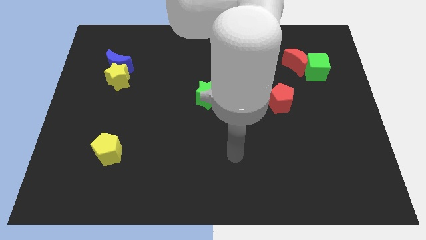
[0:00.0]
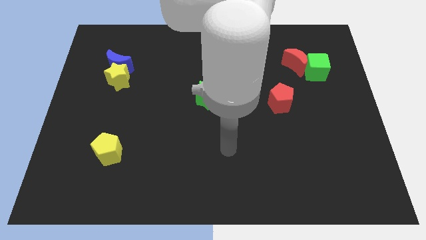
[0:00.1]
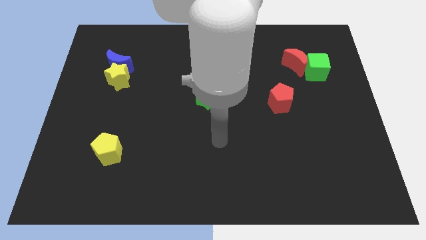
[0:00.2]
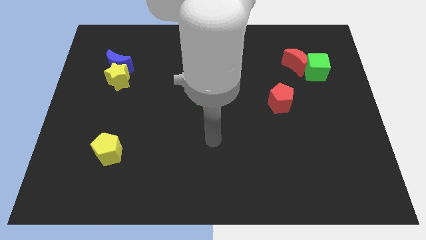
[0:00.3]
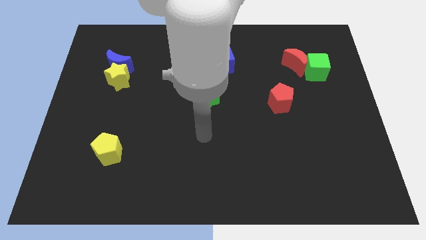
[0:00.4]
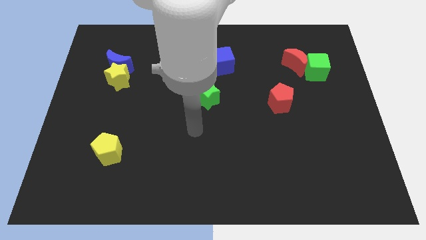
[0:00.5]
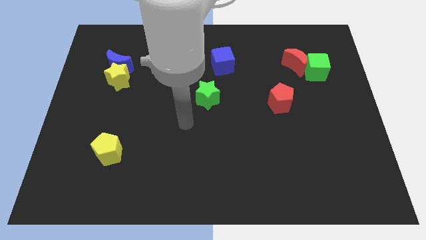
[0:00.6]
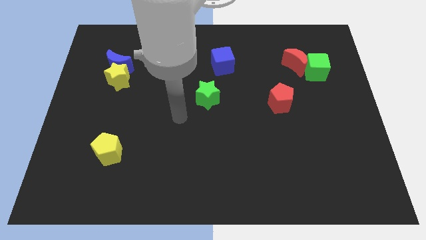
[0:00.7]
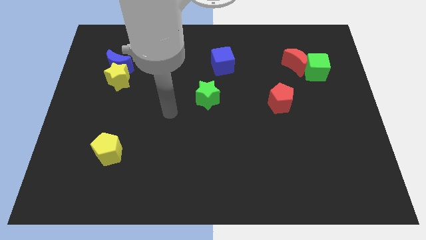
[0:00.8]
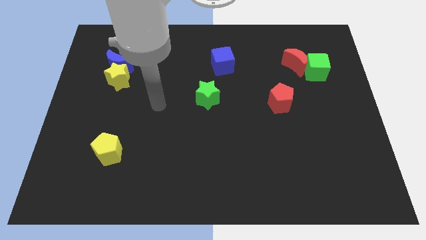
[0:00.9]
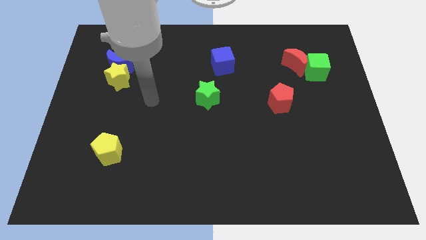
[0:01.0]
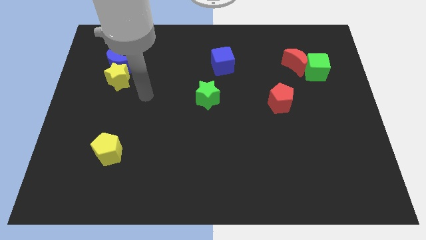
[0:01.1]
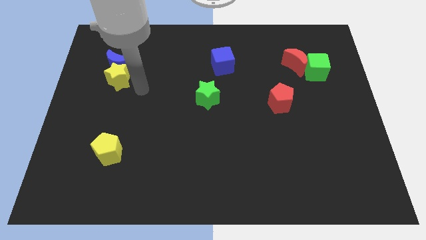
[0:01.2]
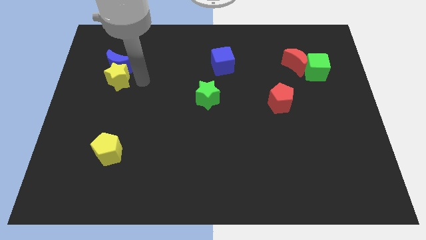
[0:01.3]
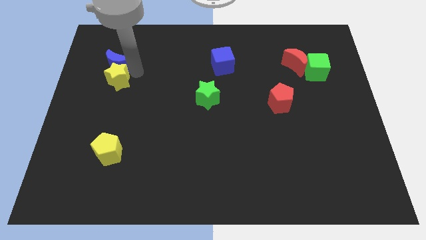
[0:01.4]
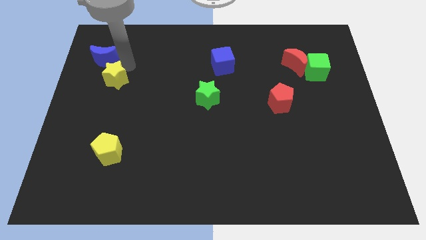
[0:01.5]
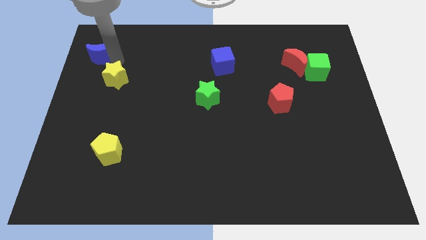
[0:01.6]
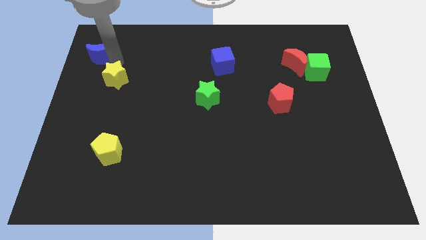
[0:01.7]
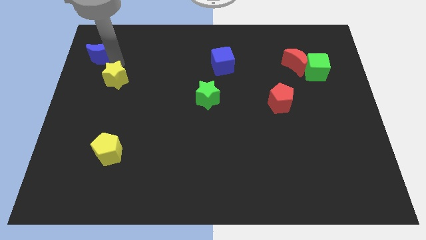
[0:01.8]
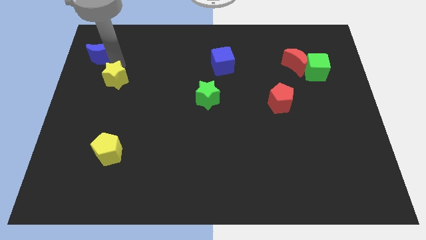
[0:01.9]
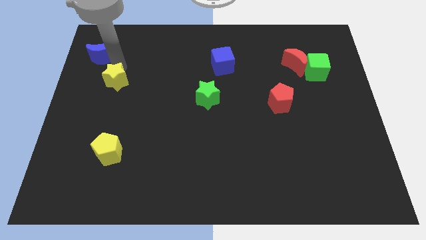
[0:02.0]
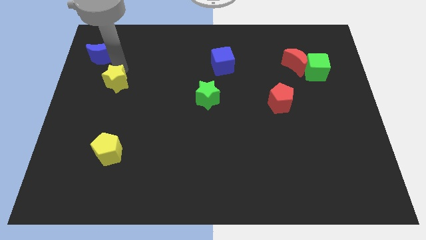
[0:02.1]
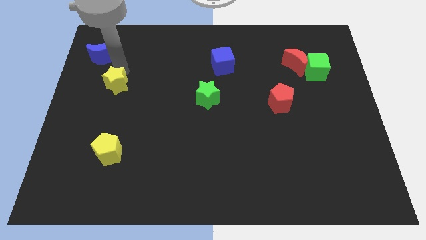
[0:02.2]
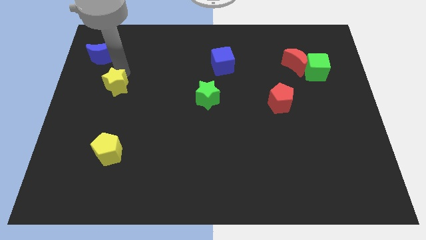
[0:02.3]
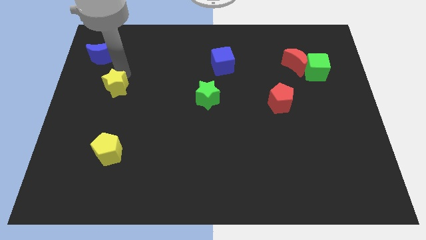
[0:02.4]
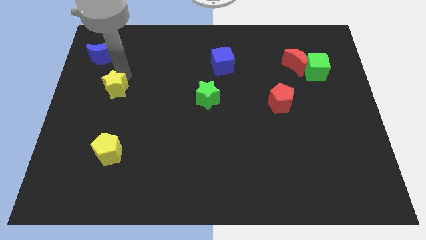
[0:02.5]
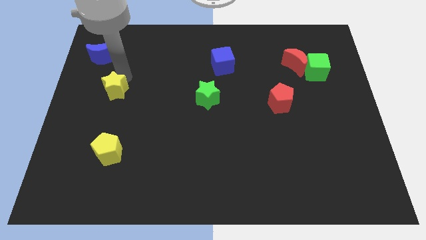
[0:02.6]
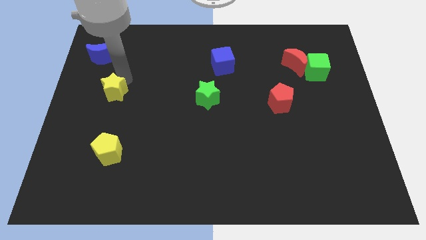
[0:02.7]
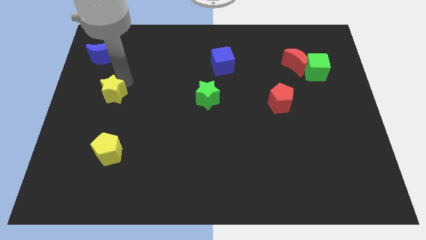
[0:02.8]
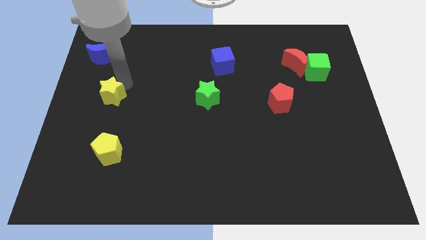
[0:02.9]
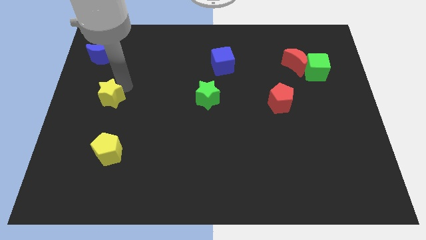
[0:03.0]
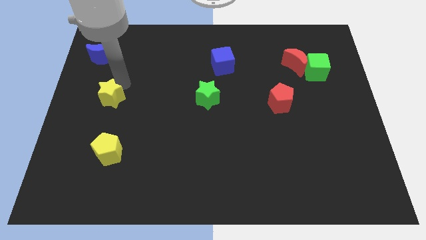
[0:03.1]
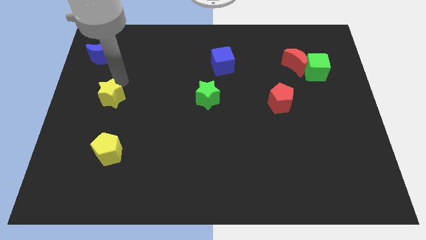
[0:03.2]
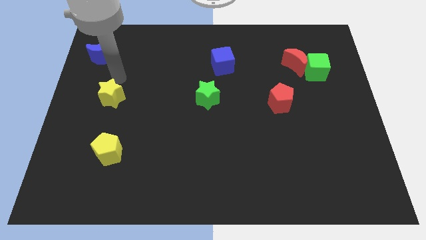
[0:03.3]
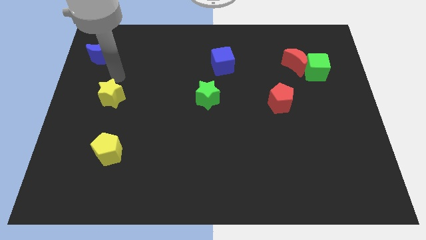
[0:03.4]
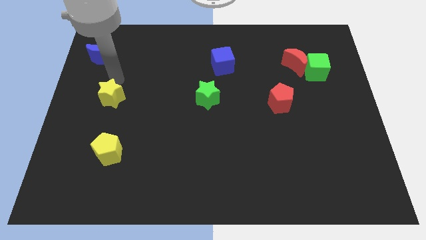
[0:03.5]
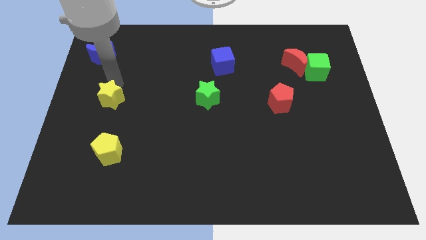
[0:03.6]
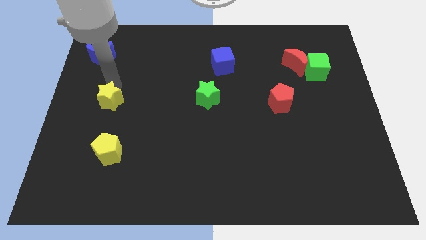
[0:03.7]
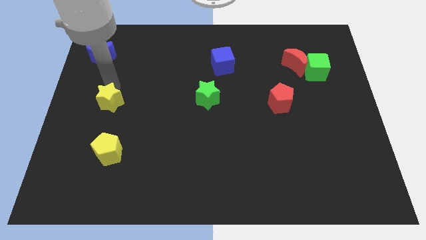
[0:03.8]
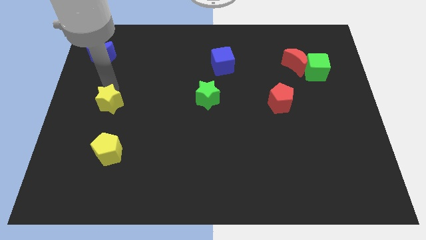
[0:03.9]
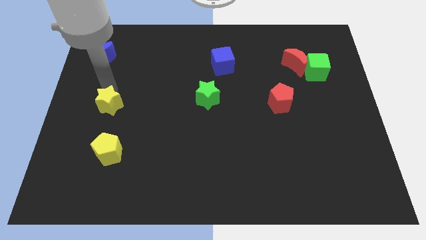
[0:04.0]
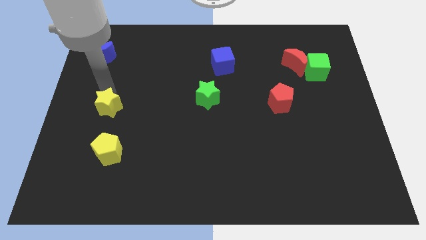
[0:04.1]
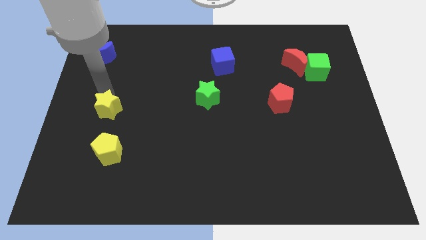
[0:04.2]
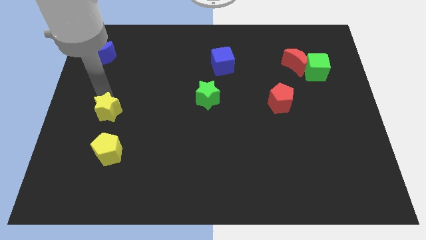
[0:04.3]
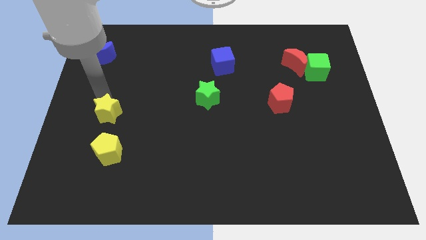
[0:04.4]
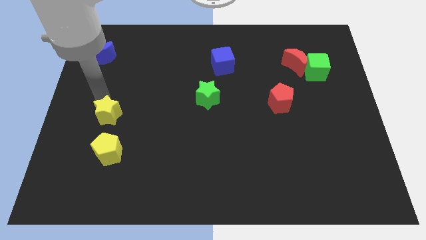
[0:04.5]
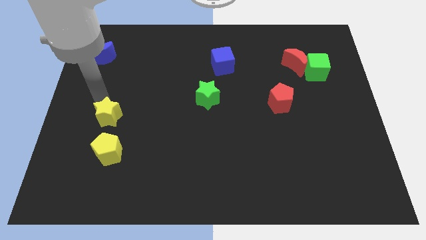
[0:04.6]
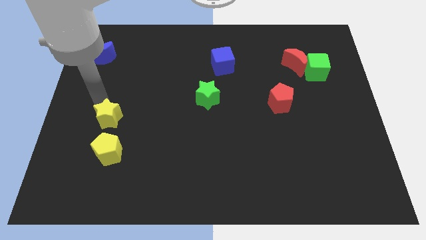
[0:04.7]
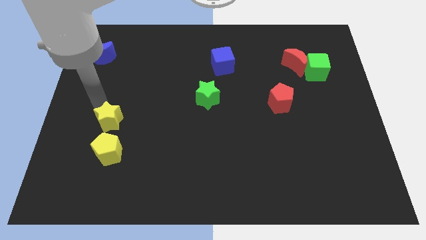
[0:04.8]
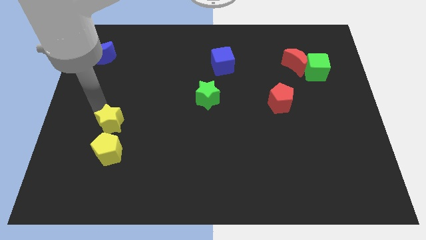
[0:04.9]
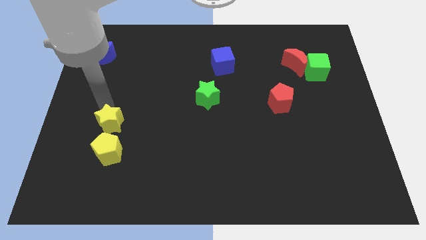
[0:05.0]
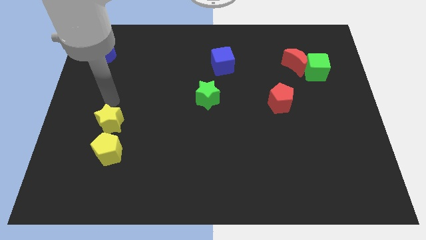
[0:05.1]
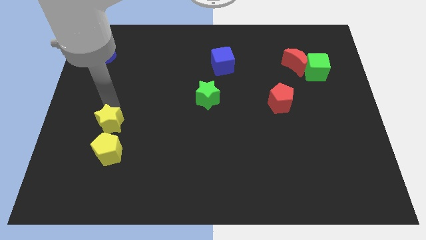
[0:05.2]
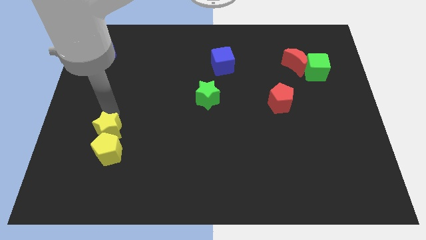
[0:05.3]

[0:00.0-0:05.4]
slide the yellow star next to the yellow pentagon

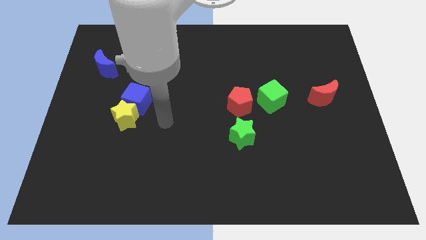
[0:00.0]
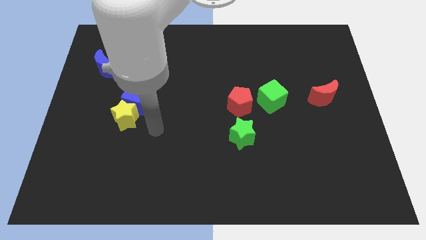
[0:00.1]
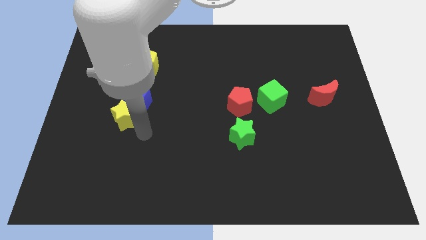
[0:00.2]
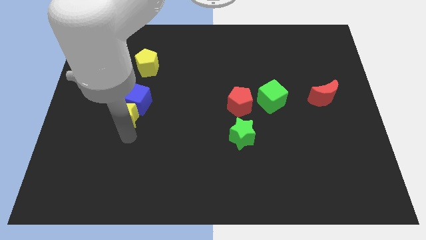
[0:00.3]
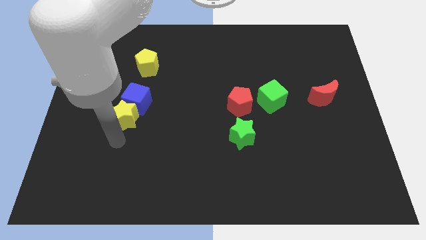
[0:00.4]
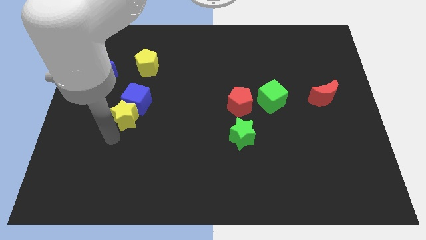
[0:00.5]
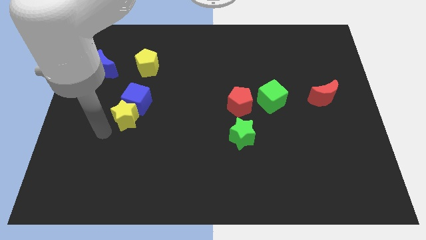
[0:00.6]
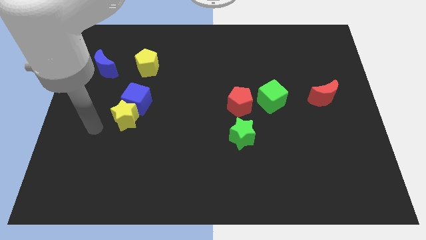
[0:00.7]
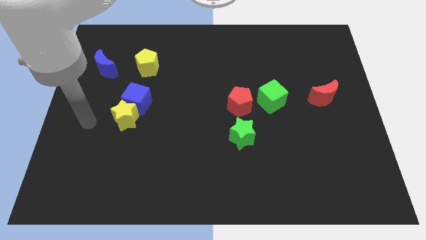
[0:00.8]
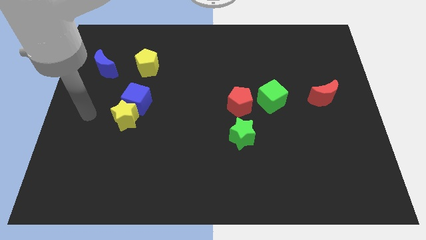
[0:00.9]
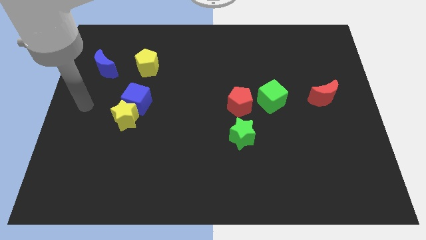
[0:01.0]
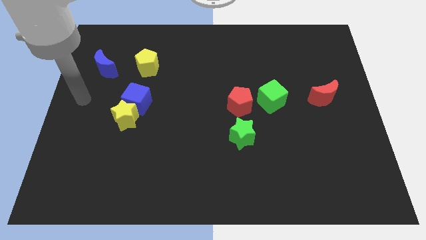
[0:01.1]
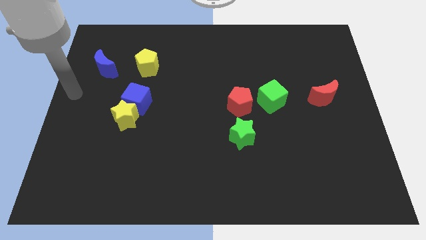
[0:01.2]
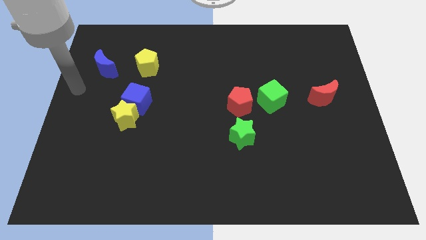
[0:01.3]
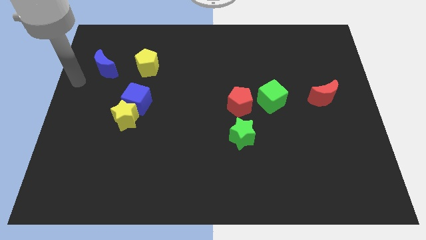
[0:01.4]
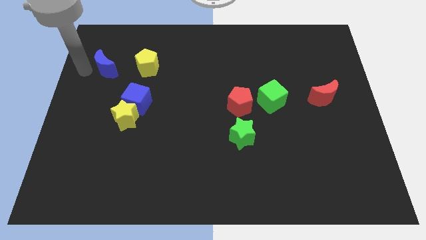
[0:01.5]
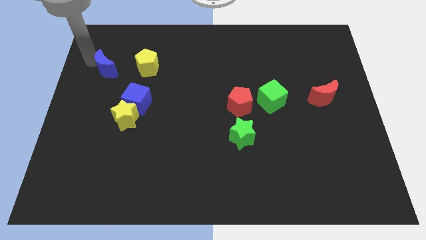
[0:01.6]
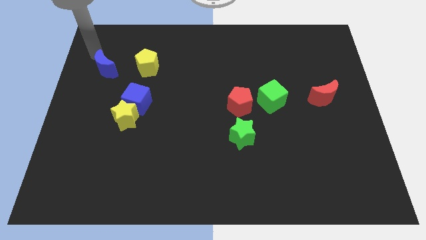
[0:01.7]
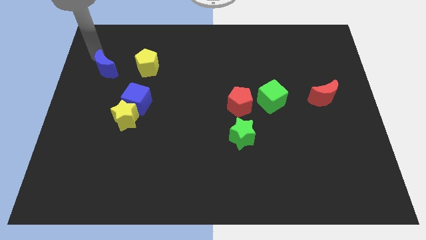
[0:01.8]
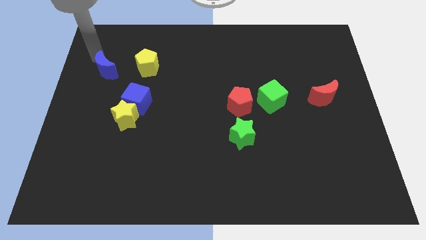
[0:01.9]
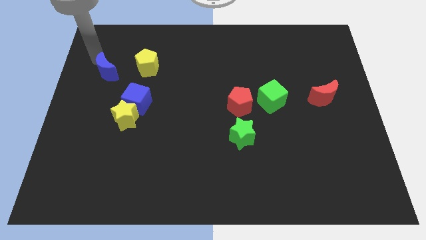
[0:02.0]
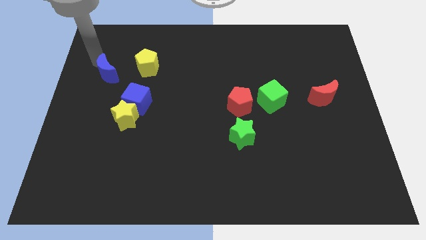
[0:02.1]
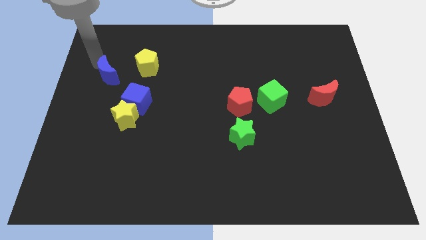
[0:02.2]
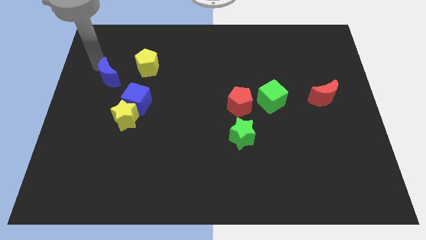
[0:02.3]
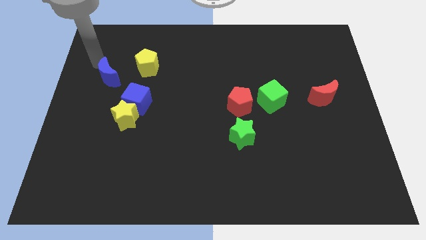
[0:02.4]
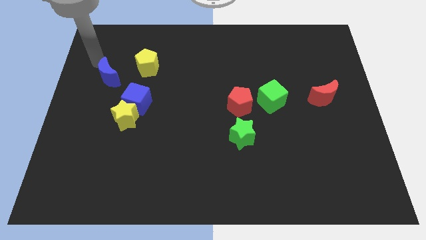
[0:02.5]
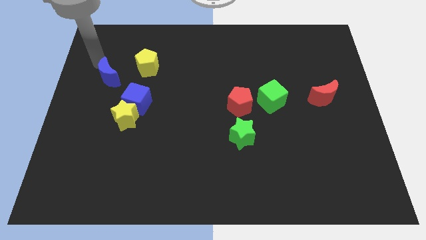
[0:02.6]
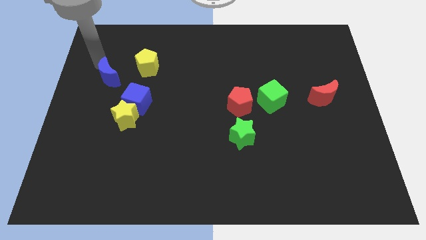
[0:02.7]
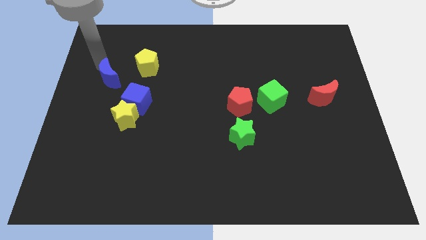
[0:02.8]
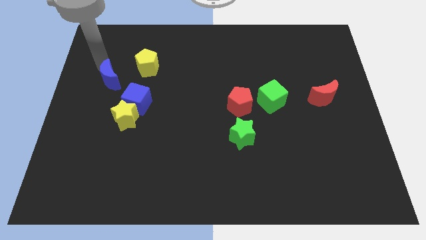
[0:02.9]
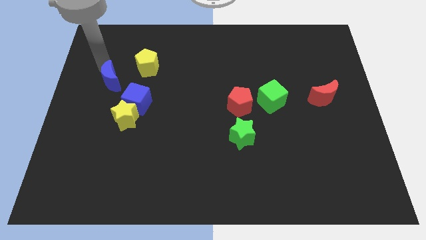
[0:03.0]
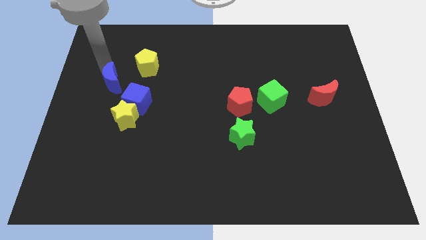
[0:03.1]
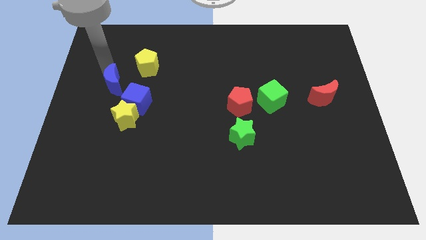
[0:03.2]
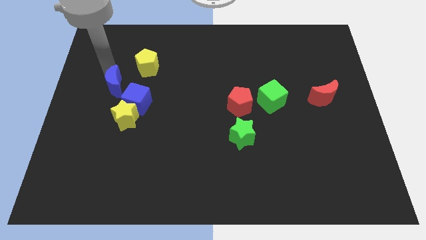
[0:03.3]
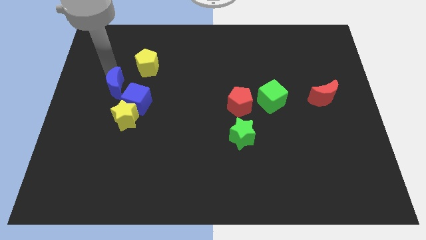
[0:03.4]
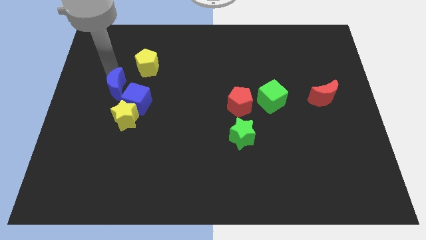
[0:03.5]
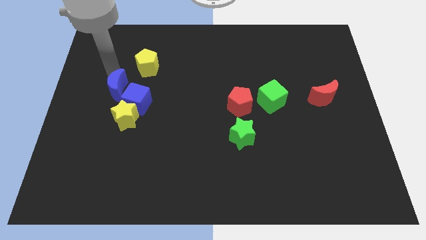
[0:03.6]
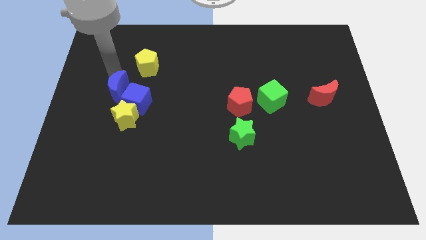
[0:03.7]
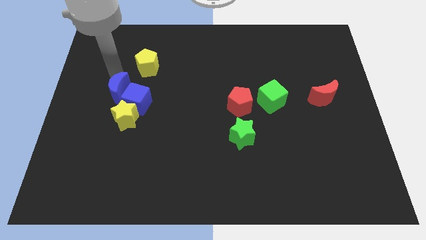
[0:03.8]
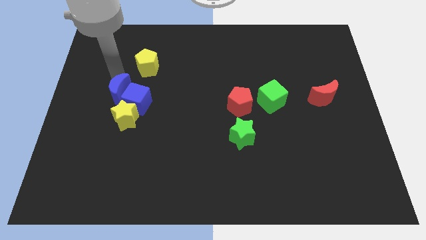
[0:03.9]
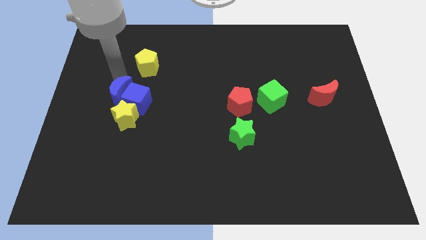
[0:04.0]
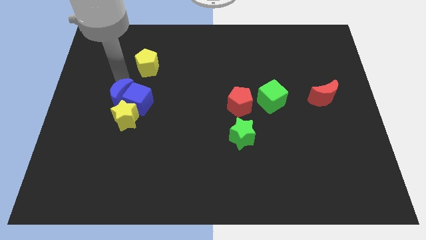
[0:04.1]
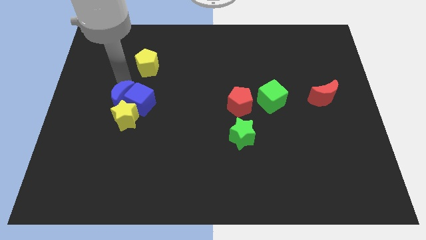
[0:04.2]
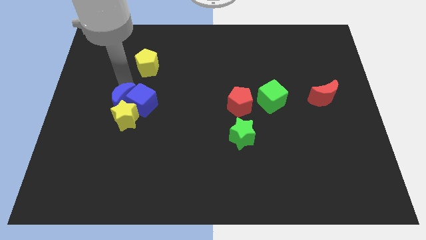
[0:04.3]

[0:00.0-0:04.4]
slide the blue moon next to the yellow star
